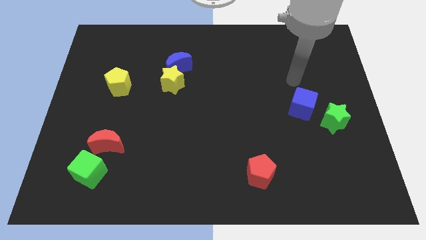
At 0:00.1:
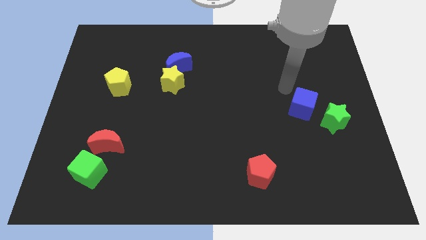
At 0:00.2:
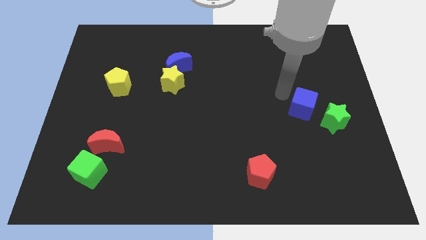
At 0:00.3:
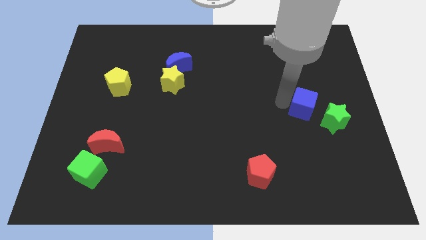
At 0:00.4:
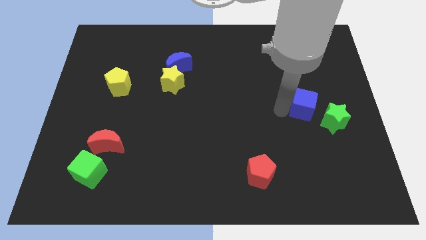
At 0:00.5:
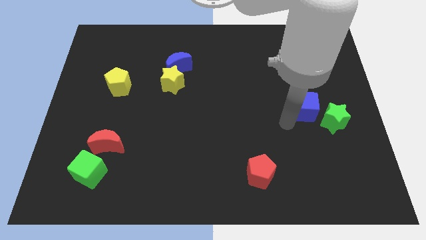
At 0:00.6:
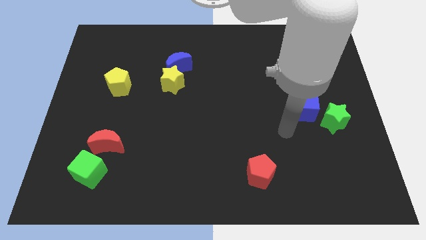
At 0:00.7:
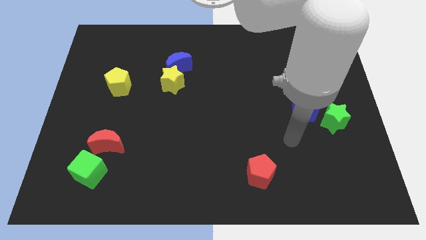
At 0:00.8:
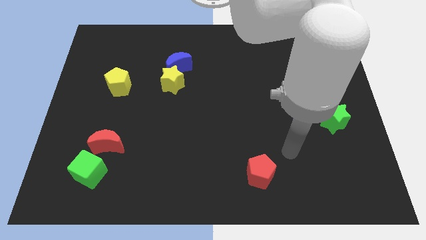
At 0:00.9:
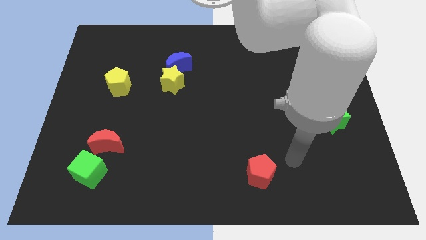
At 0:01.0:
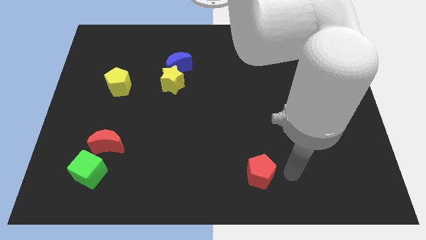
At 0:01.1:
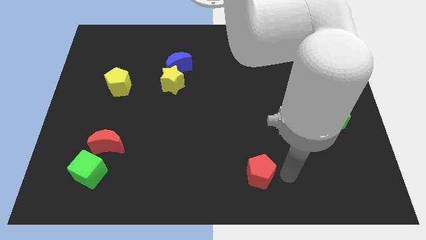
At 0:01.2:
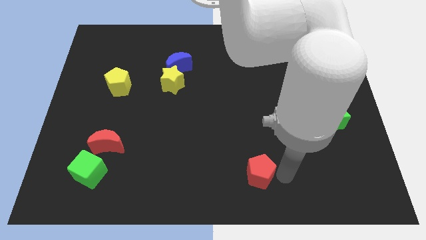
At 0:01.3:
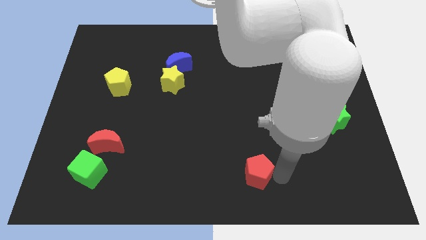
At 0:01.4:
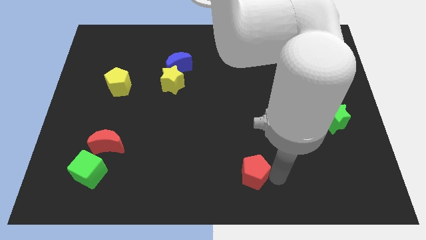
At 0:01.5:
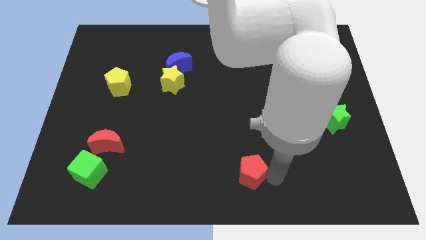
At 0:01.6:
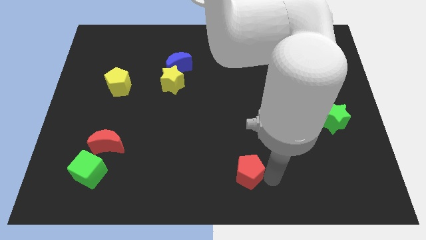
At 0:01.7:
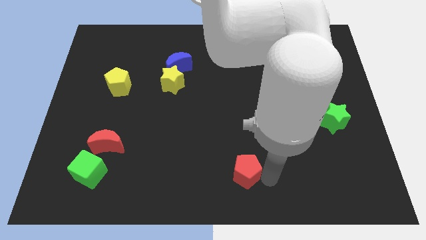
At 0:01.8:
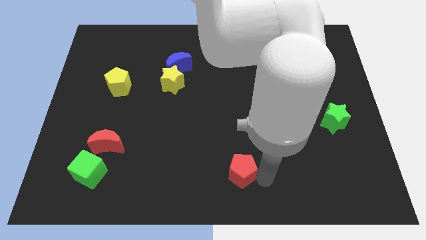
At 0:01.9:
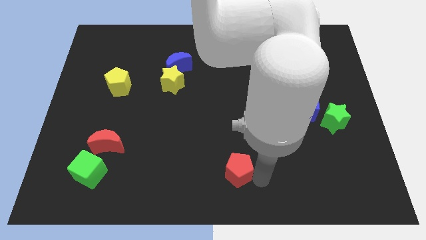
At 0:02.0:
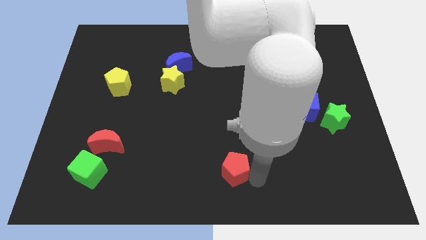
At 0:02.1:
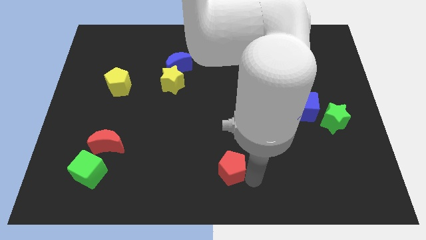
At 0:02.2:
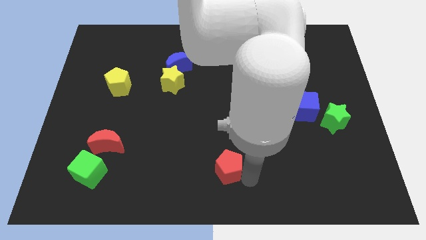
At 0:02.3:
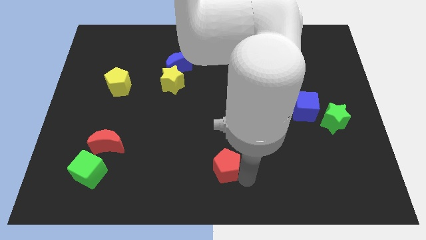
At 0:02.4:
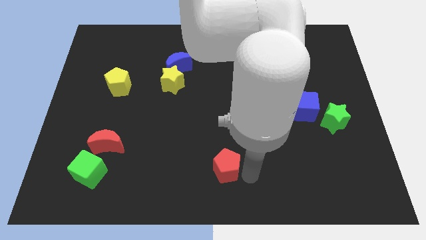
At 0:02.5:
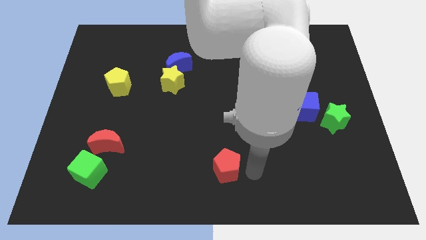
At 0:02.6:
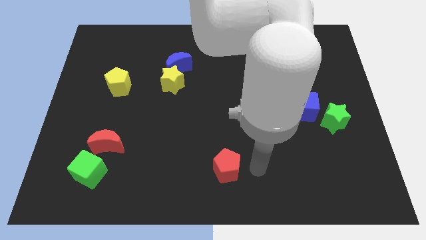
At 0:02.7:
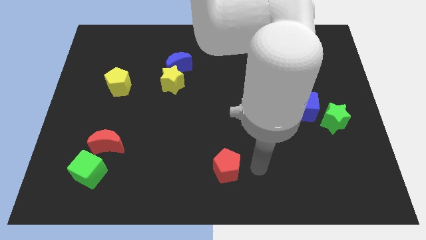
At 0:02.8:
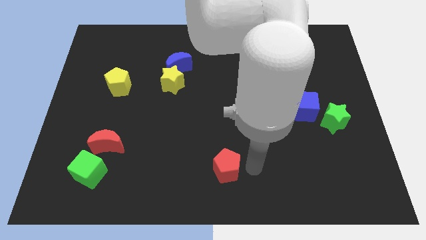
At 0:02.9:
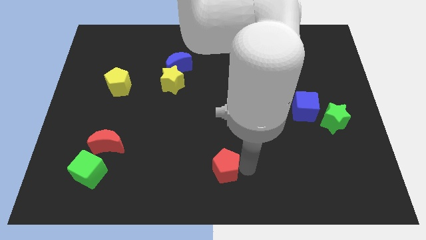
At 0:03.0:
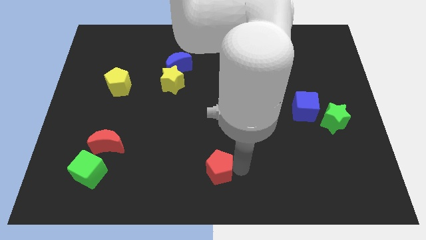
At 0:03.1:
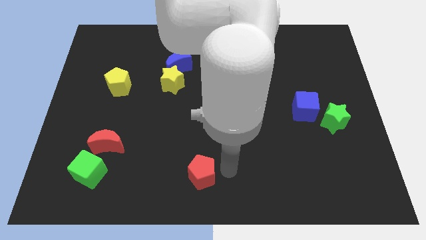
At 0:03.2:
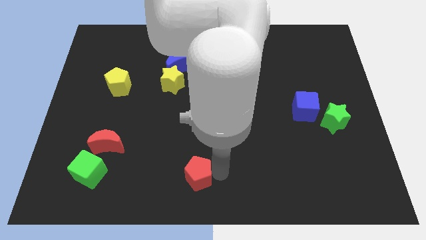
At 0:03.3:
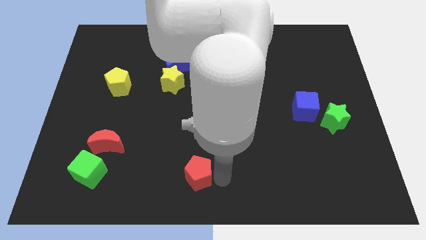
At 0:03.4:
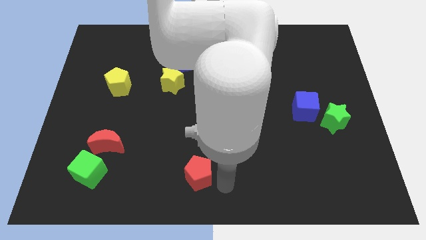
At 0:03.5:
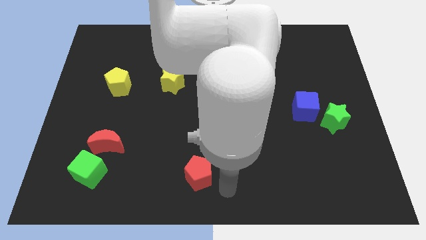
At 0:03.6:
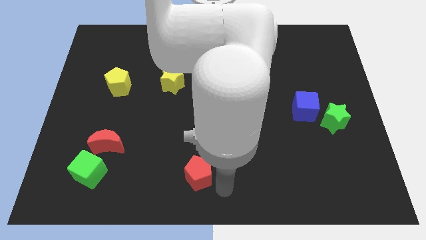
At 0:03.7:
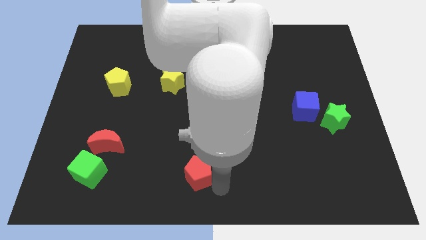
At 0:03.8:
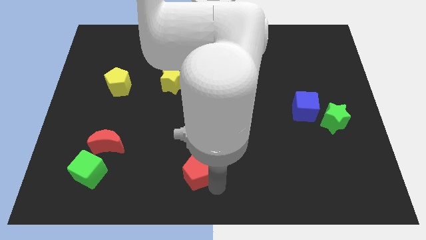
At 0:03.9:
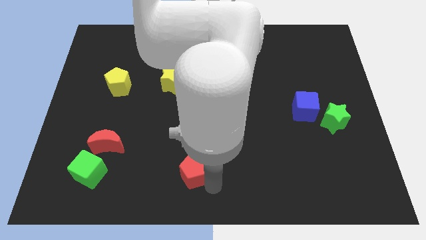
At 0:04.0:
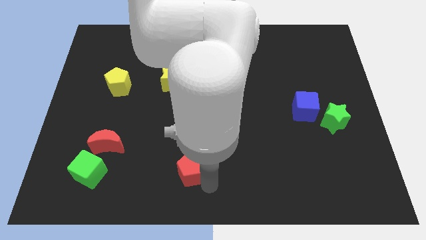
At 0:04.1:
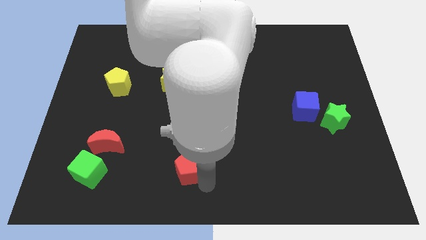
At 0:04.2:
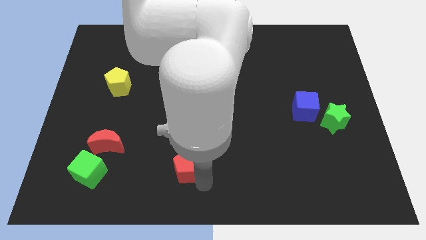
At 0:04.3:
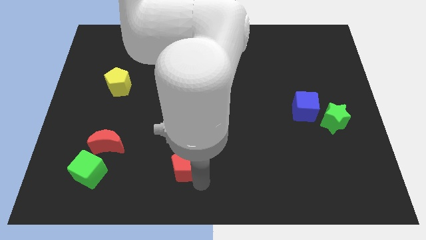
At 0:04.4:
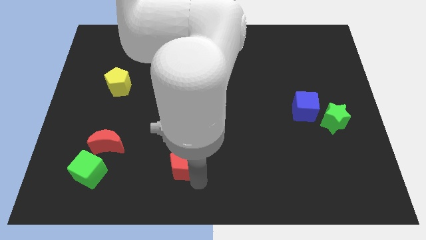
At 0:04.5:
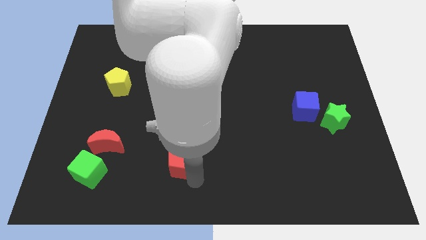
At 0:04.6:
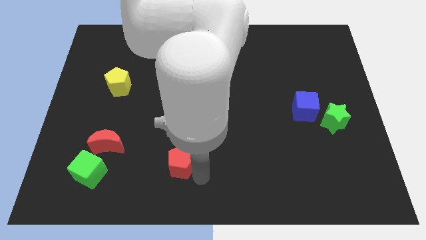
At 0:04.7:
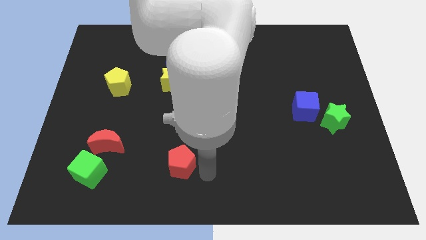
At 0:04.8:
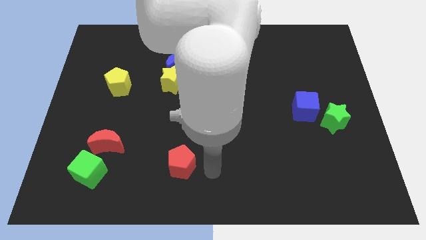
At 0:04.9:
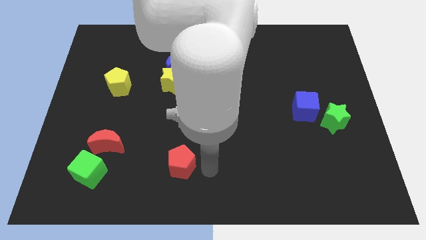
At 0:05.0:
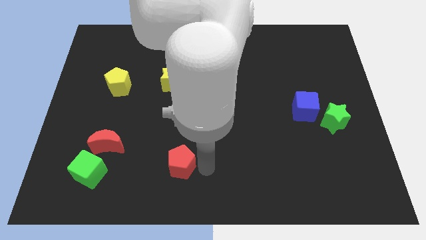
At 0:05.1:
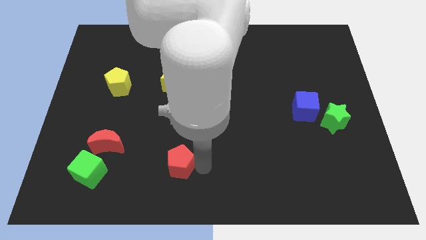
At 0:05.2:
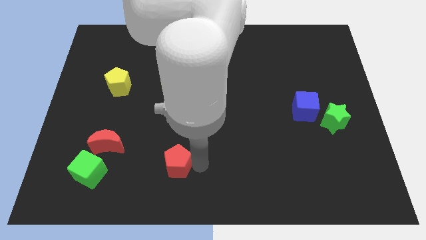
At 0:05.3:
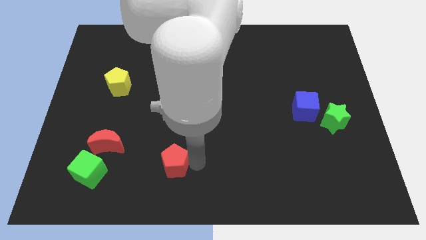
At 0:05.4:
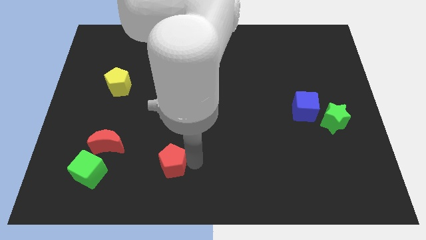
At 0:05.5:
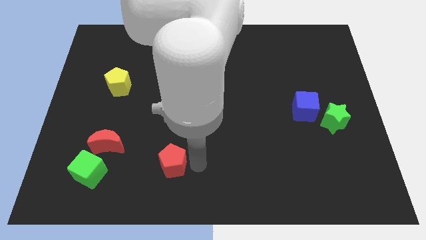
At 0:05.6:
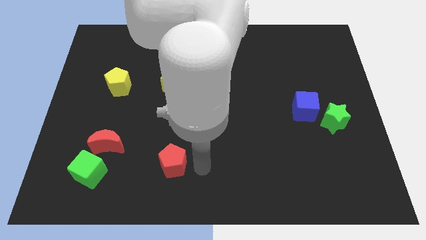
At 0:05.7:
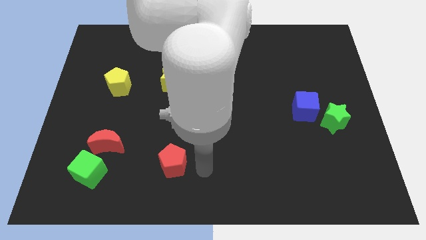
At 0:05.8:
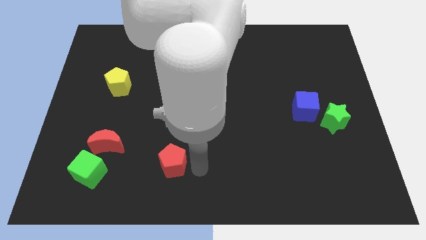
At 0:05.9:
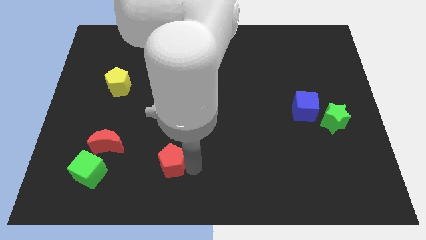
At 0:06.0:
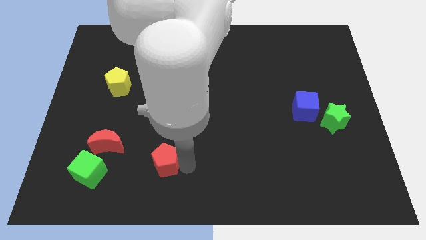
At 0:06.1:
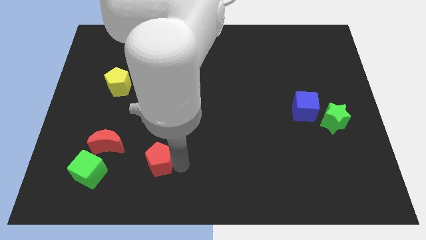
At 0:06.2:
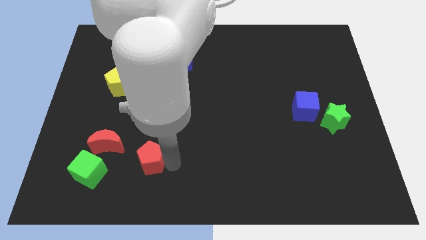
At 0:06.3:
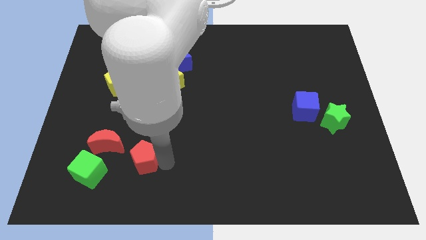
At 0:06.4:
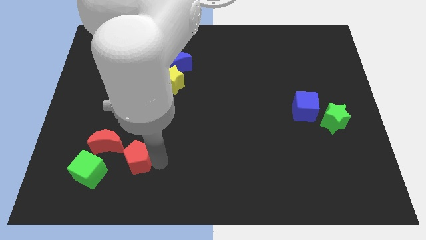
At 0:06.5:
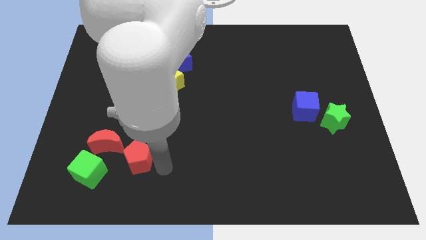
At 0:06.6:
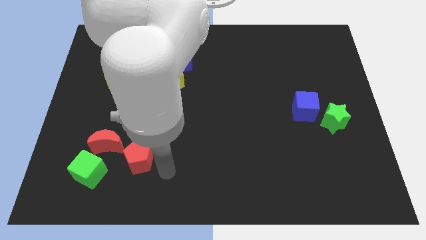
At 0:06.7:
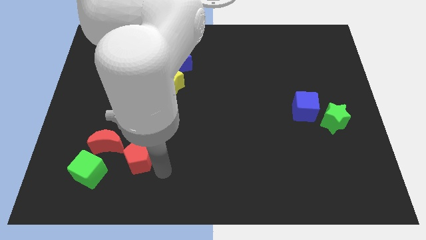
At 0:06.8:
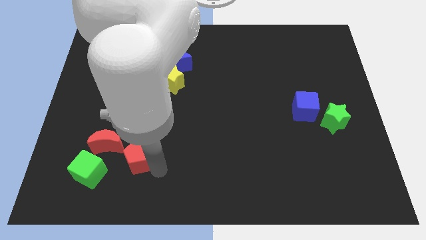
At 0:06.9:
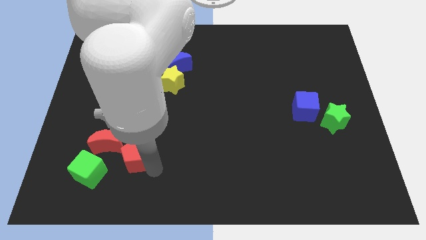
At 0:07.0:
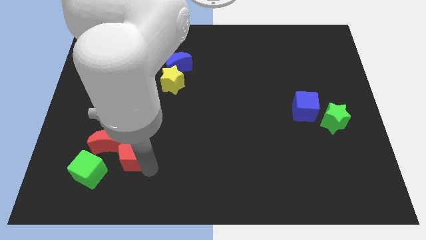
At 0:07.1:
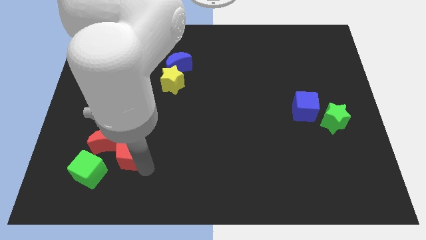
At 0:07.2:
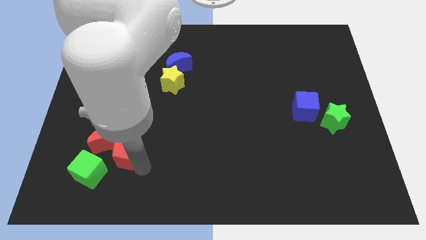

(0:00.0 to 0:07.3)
slide the red pentagon next to the red moon
